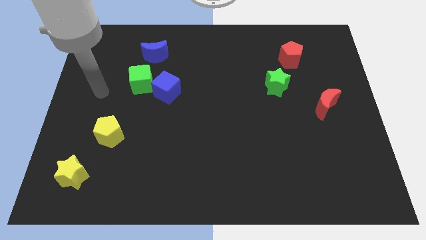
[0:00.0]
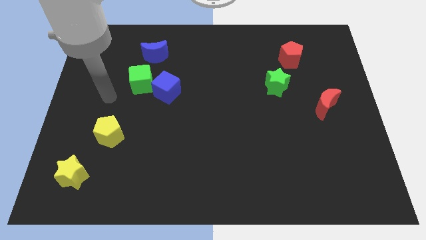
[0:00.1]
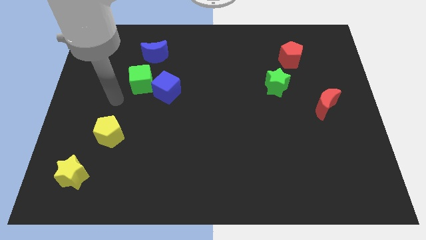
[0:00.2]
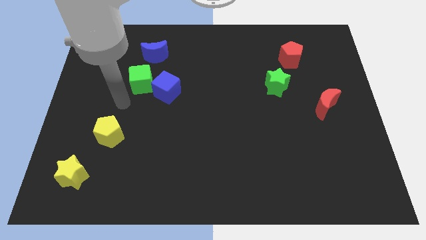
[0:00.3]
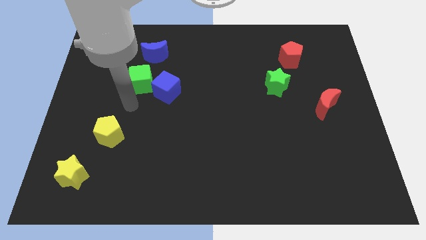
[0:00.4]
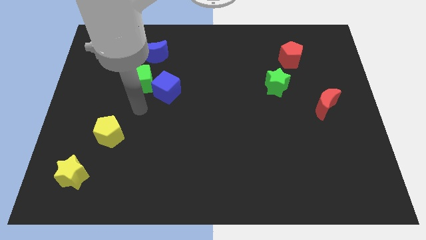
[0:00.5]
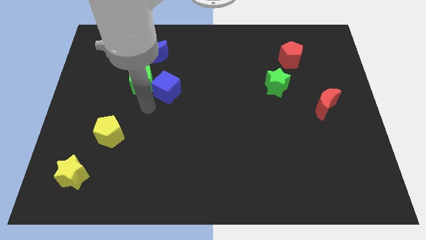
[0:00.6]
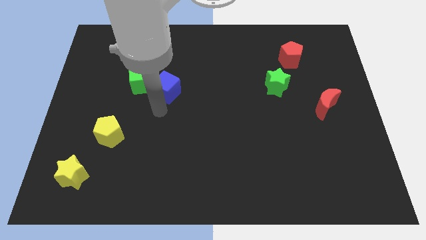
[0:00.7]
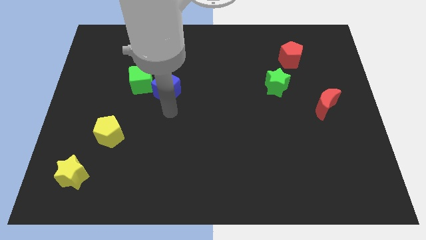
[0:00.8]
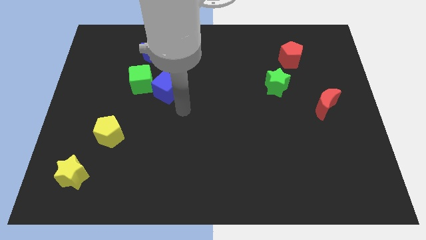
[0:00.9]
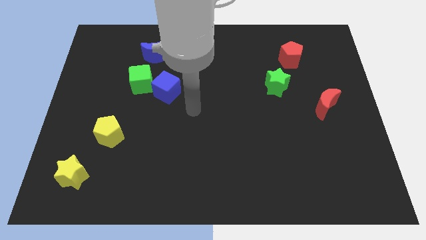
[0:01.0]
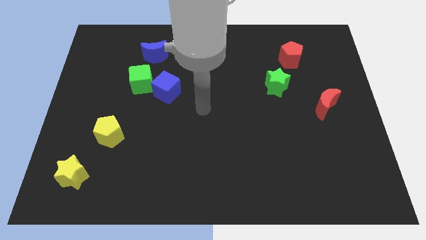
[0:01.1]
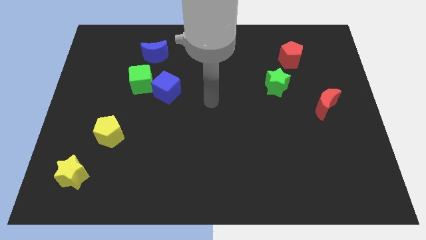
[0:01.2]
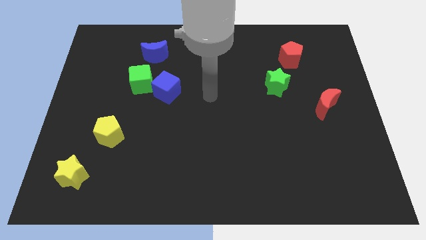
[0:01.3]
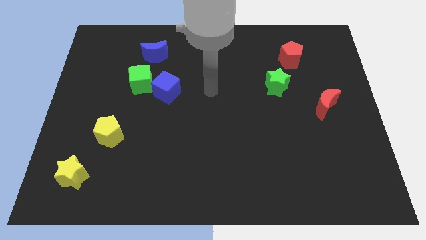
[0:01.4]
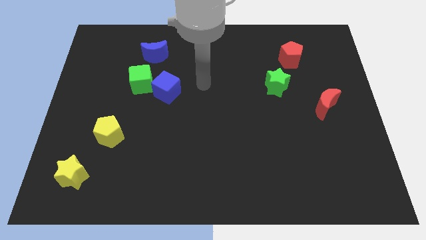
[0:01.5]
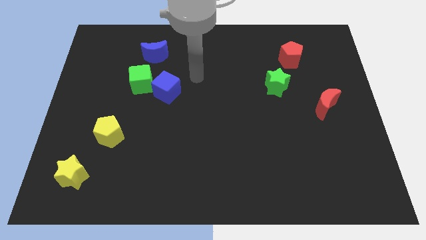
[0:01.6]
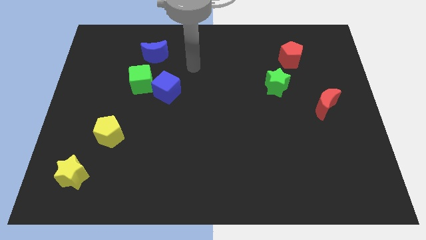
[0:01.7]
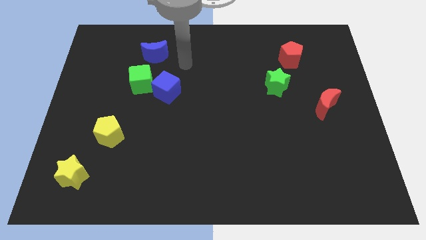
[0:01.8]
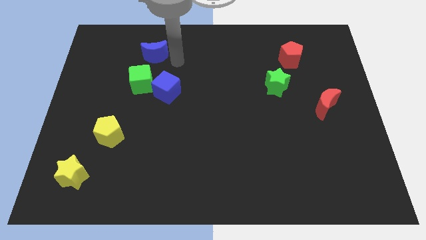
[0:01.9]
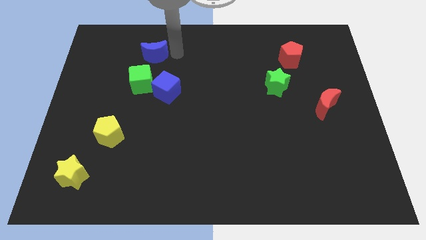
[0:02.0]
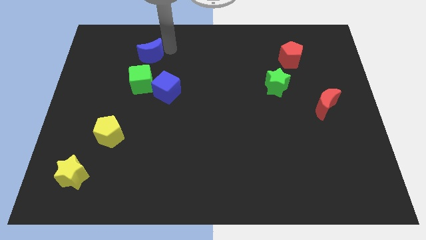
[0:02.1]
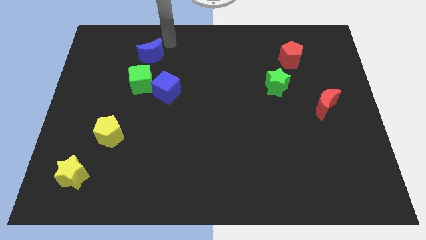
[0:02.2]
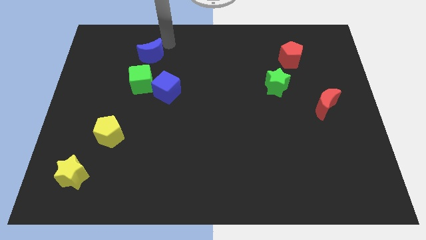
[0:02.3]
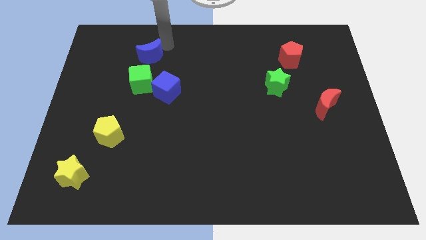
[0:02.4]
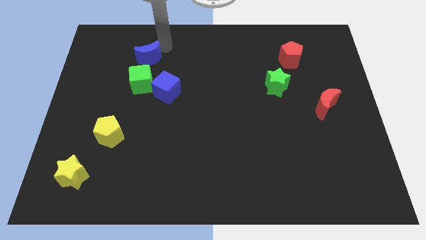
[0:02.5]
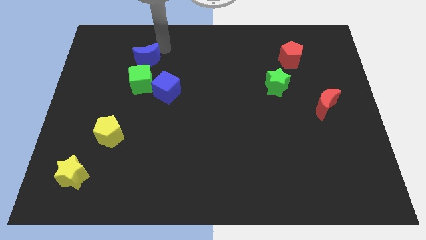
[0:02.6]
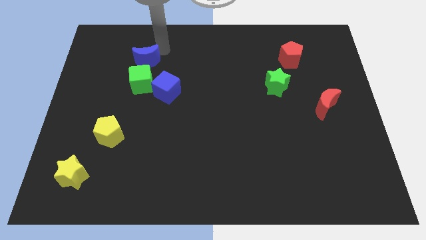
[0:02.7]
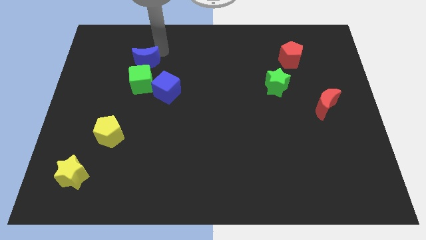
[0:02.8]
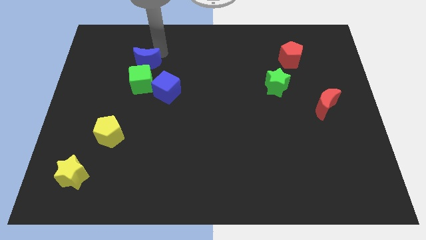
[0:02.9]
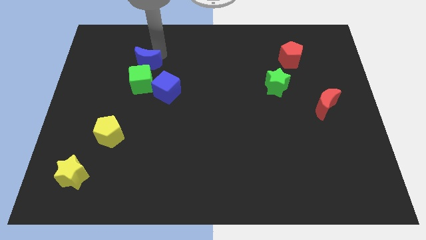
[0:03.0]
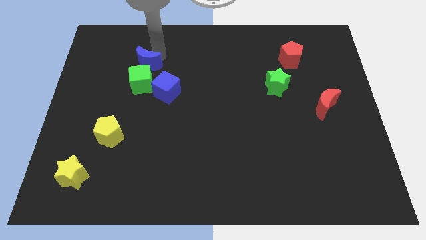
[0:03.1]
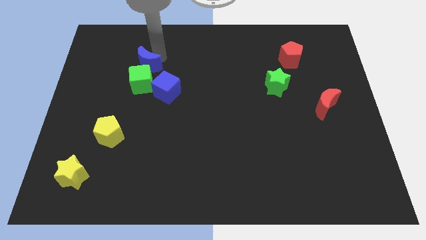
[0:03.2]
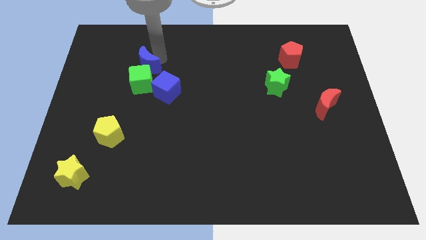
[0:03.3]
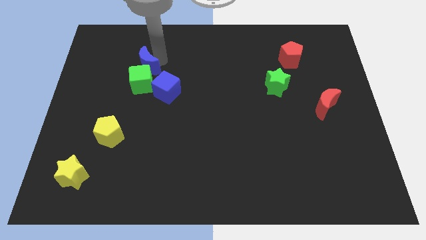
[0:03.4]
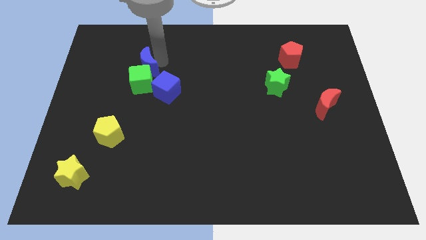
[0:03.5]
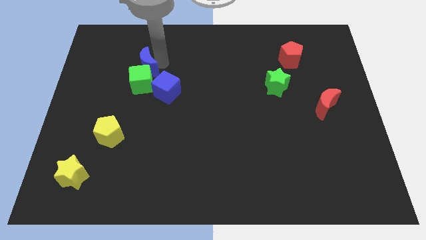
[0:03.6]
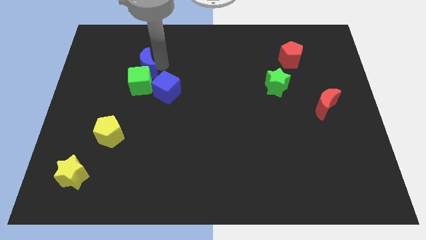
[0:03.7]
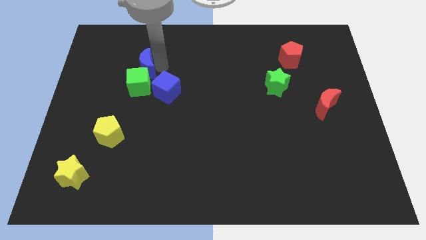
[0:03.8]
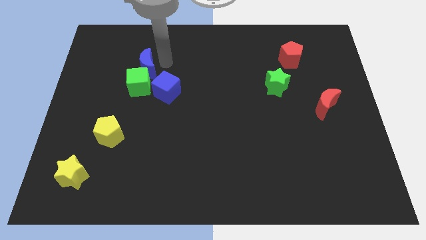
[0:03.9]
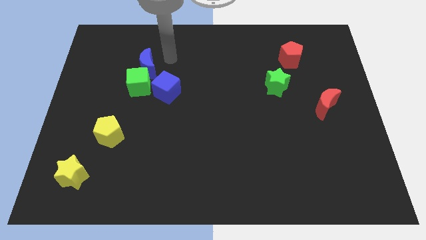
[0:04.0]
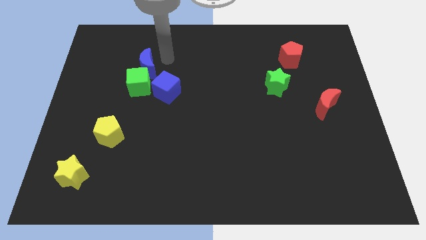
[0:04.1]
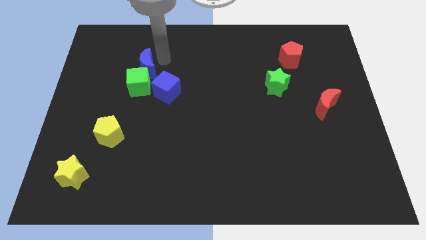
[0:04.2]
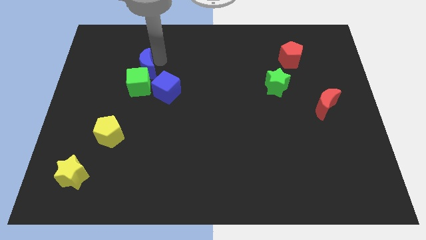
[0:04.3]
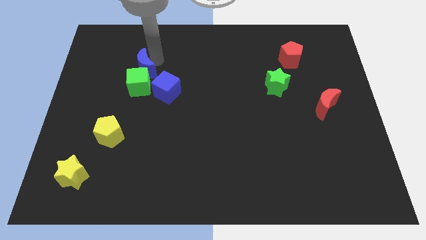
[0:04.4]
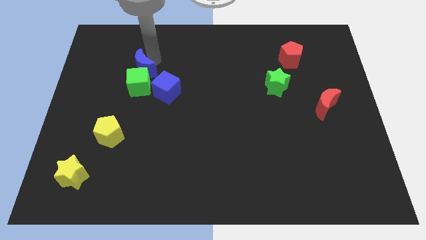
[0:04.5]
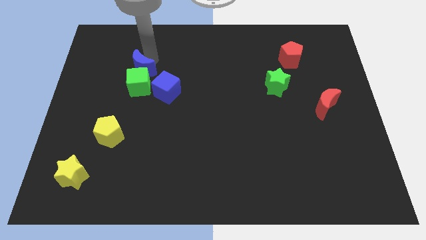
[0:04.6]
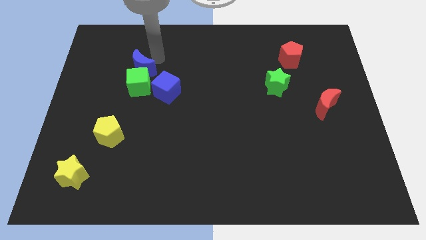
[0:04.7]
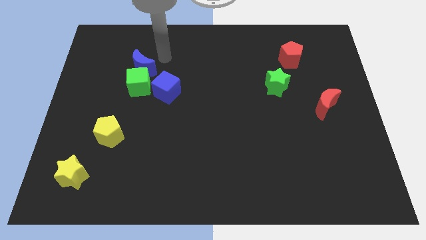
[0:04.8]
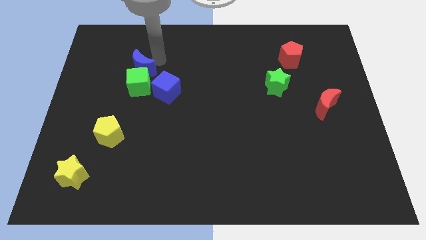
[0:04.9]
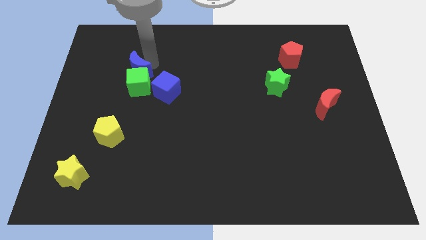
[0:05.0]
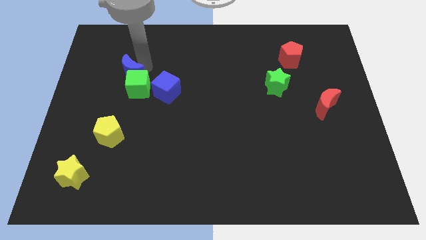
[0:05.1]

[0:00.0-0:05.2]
move the blue moon down and left diagonally slightly

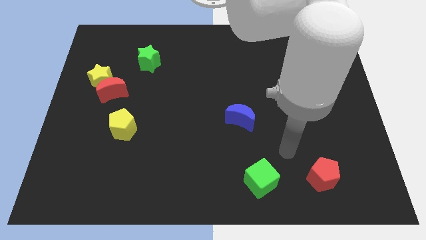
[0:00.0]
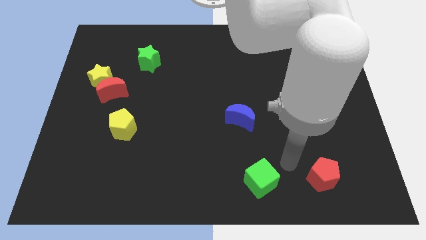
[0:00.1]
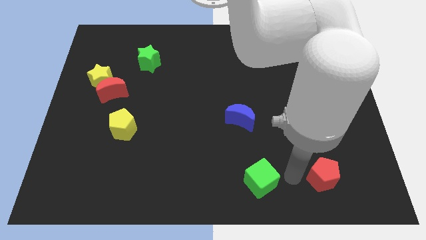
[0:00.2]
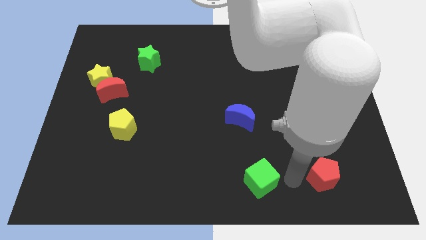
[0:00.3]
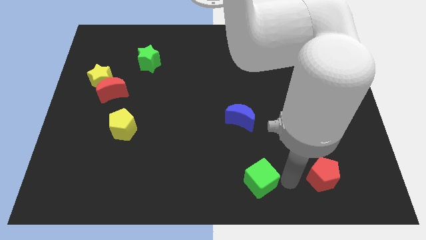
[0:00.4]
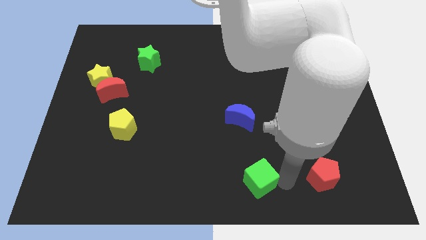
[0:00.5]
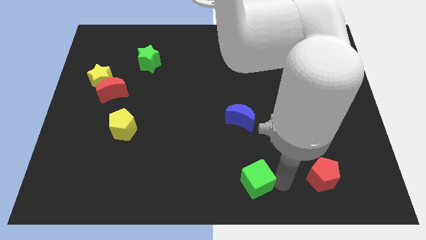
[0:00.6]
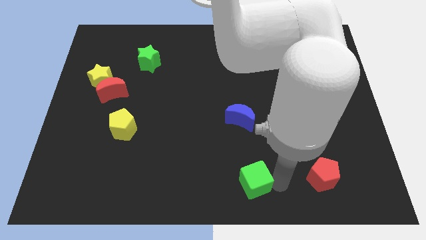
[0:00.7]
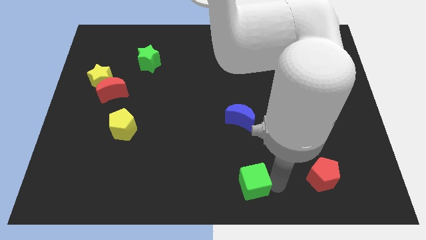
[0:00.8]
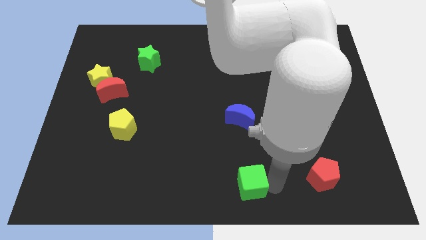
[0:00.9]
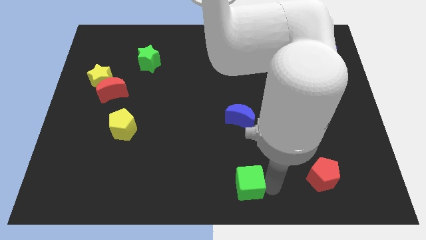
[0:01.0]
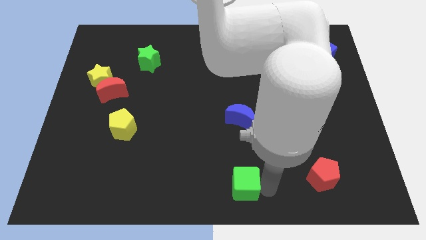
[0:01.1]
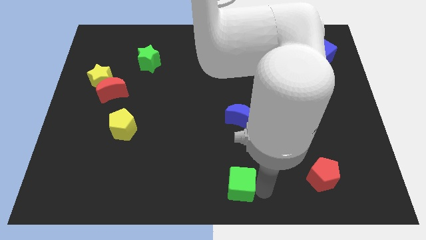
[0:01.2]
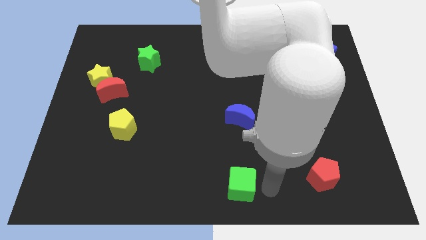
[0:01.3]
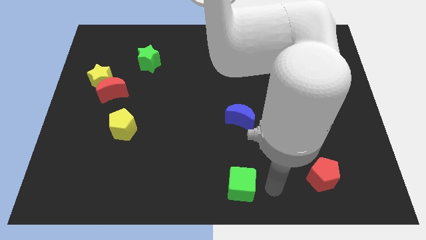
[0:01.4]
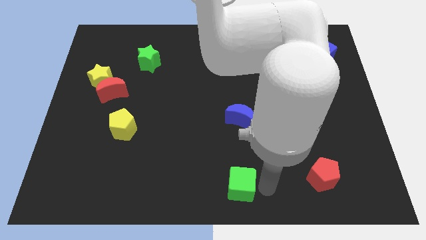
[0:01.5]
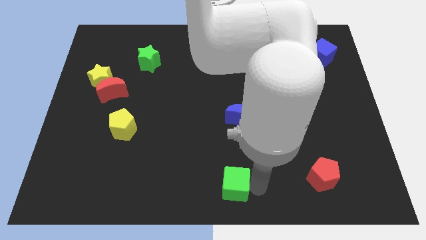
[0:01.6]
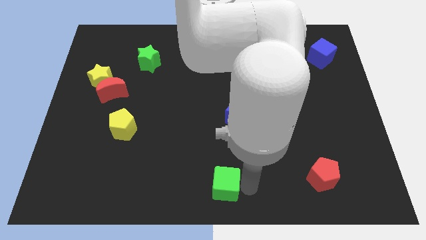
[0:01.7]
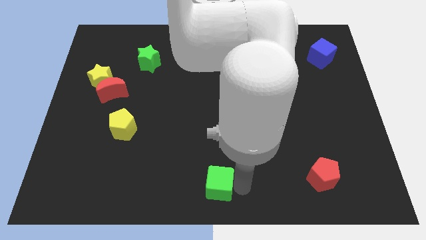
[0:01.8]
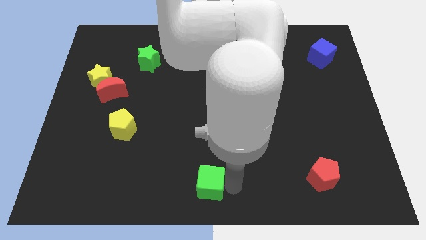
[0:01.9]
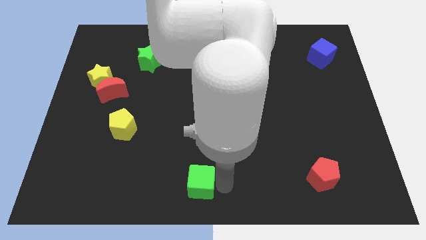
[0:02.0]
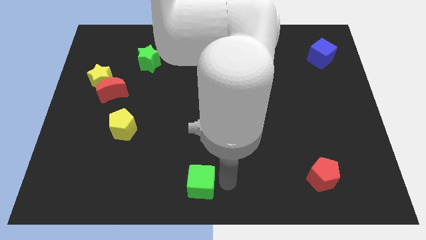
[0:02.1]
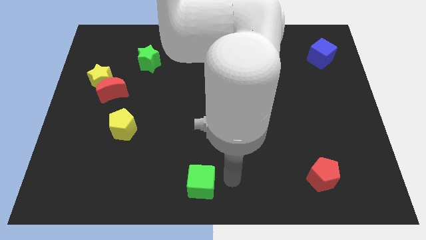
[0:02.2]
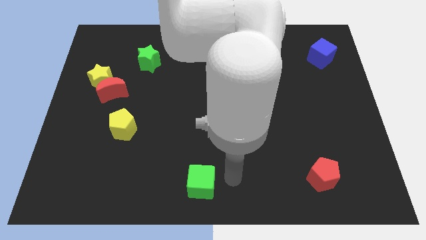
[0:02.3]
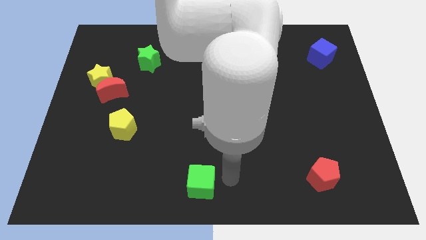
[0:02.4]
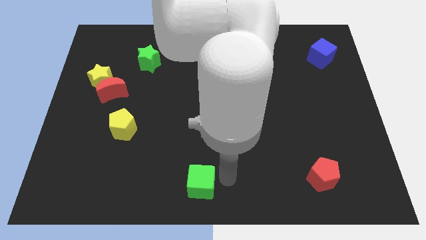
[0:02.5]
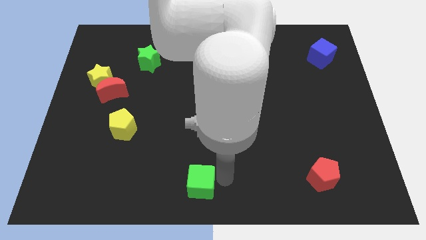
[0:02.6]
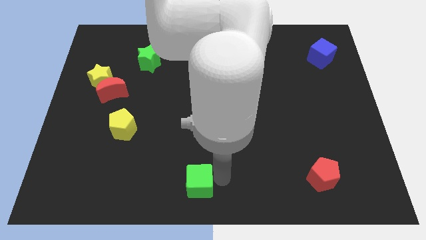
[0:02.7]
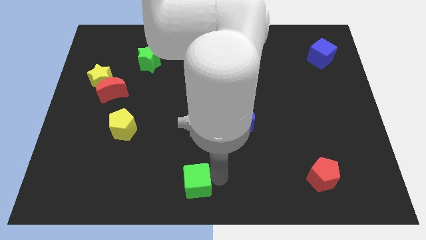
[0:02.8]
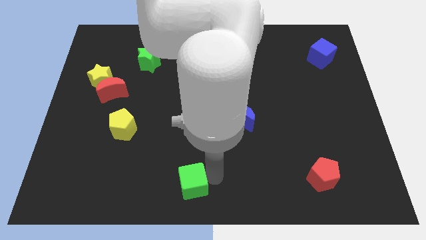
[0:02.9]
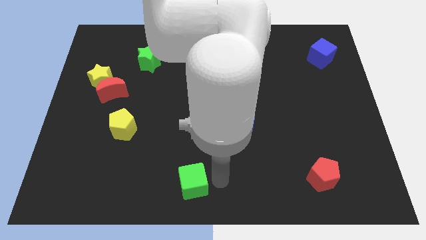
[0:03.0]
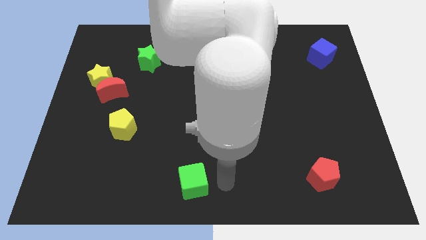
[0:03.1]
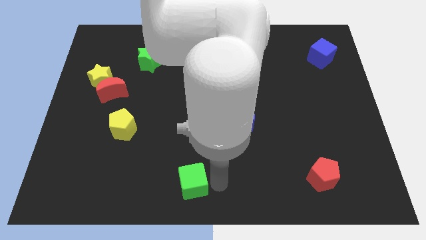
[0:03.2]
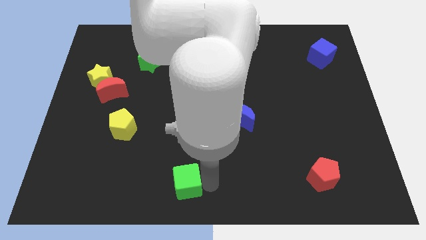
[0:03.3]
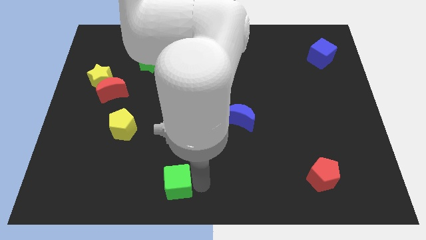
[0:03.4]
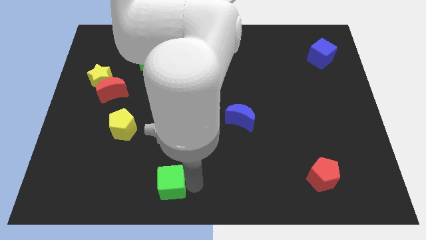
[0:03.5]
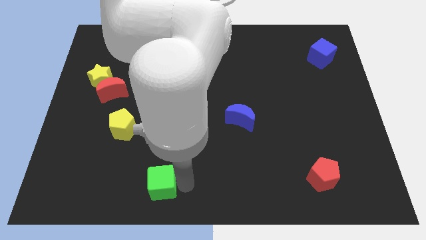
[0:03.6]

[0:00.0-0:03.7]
move the green cube to the left
